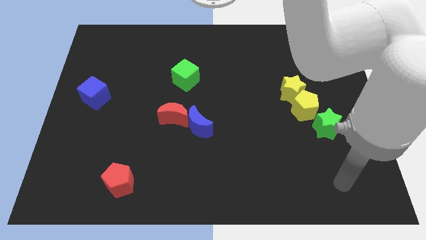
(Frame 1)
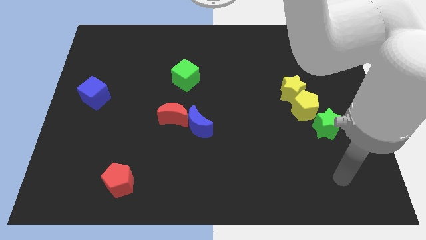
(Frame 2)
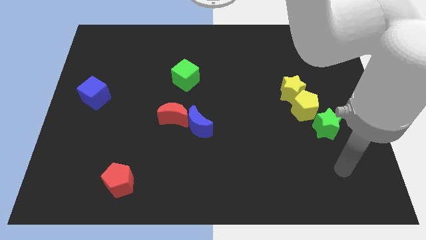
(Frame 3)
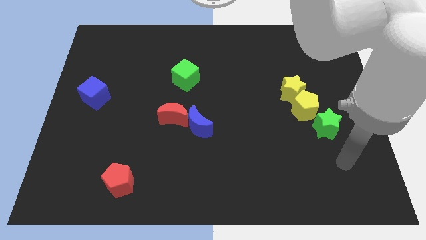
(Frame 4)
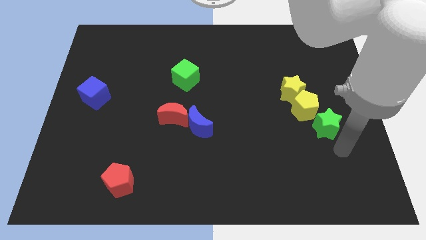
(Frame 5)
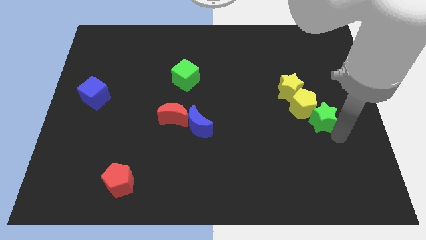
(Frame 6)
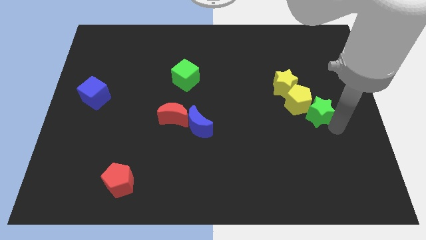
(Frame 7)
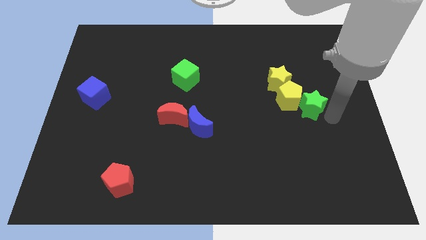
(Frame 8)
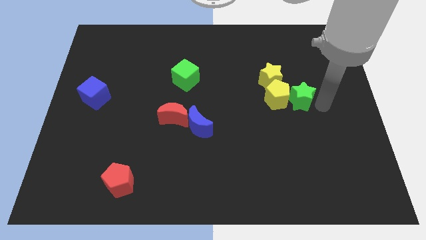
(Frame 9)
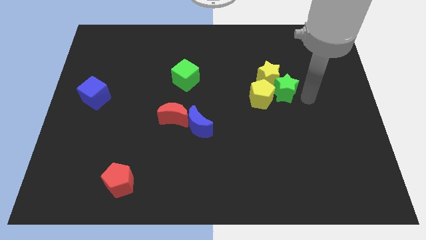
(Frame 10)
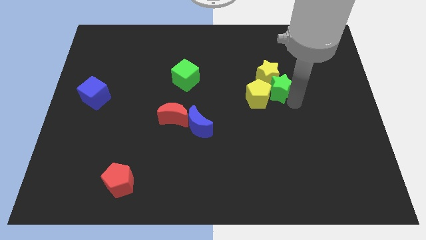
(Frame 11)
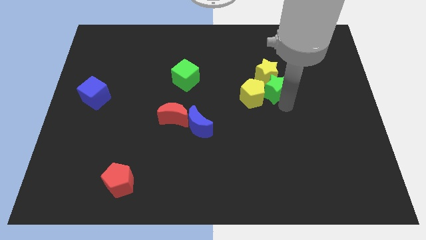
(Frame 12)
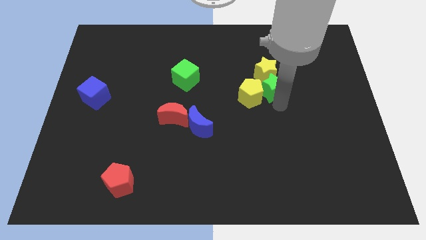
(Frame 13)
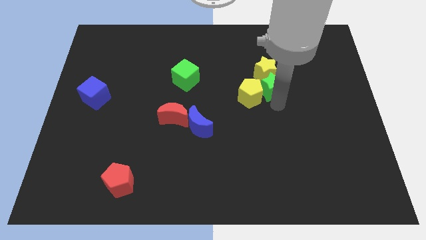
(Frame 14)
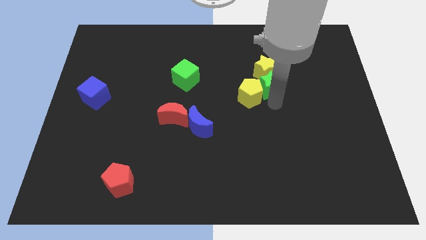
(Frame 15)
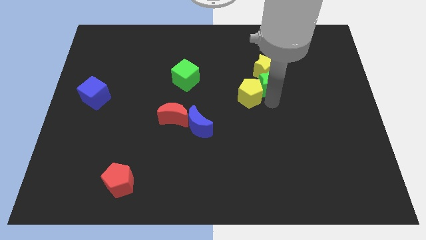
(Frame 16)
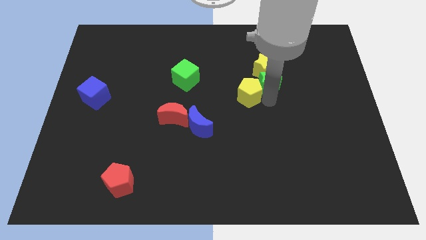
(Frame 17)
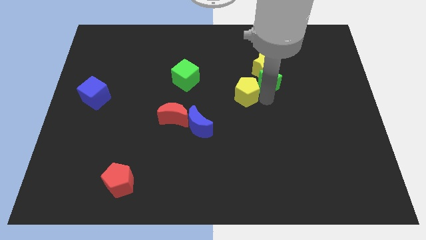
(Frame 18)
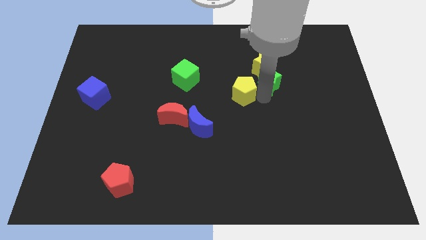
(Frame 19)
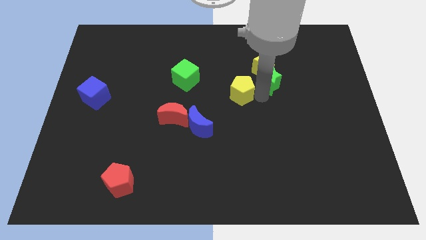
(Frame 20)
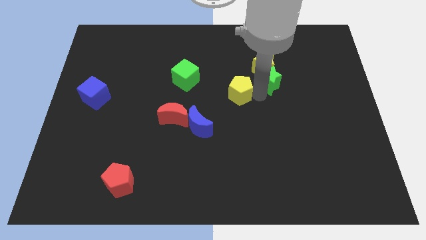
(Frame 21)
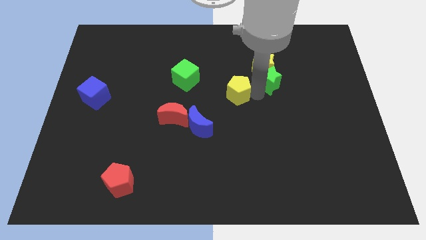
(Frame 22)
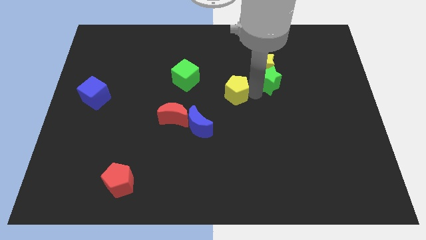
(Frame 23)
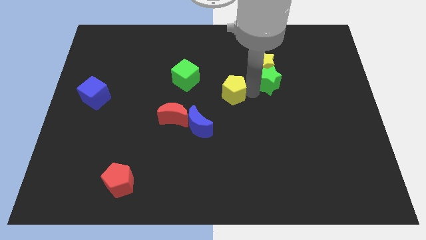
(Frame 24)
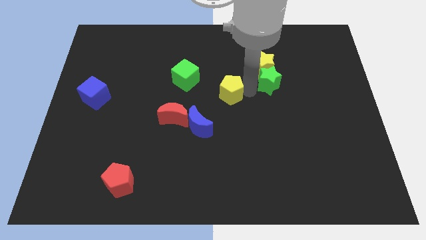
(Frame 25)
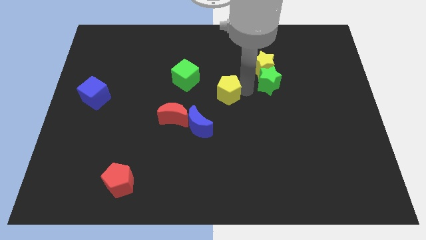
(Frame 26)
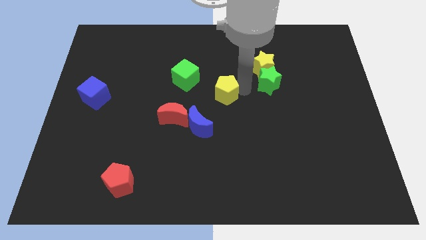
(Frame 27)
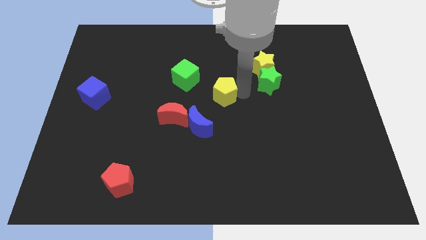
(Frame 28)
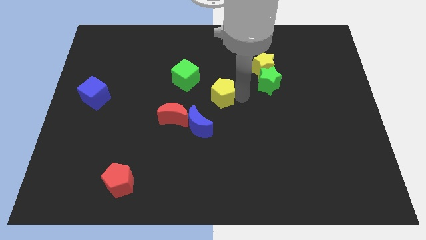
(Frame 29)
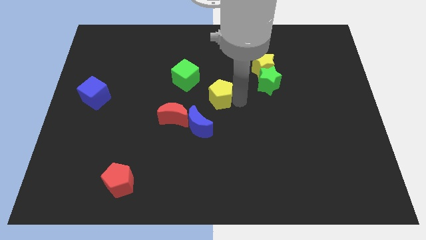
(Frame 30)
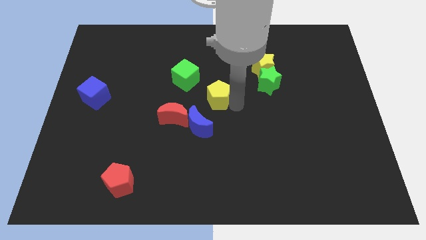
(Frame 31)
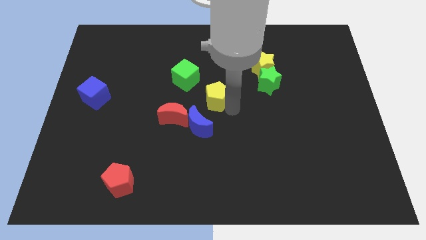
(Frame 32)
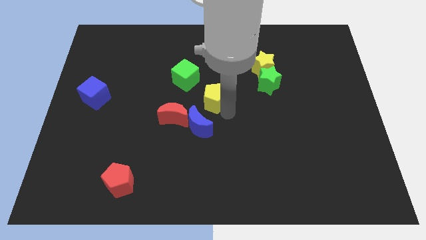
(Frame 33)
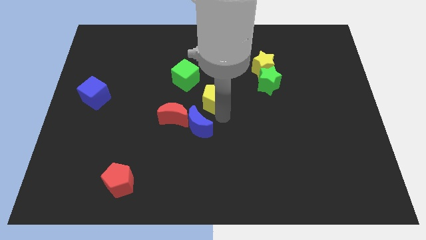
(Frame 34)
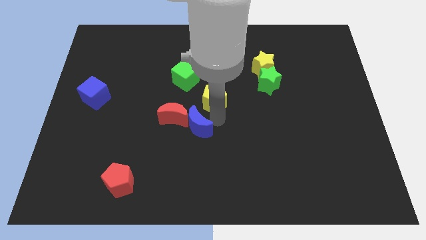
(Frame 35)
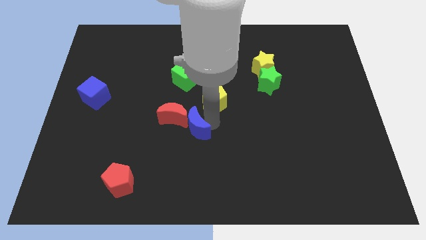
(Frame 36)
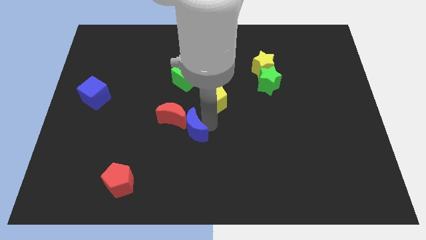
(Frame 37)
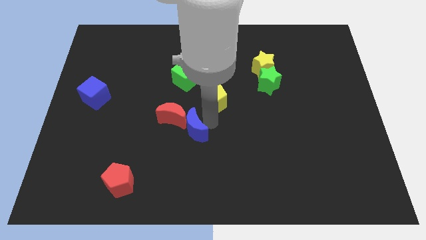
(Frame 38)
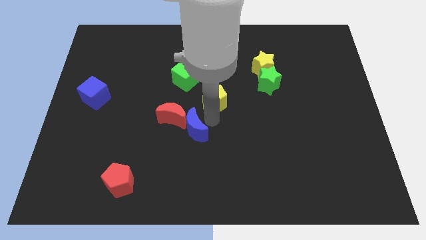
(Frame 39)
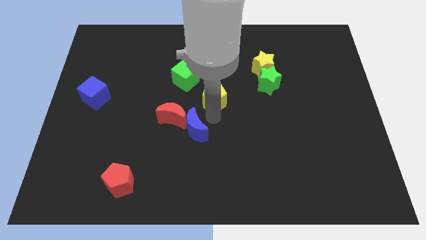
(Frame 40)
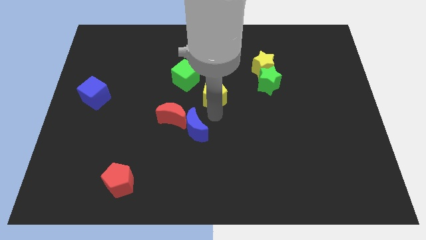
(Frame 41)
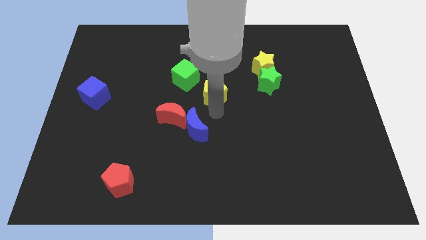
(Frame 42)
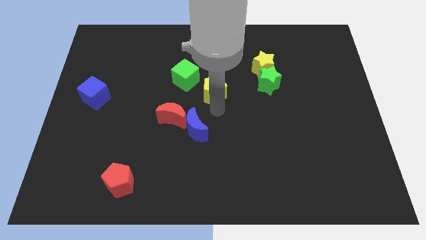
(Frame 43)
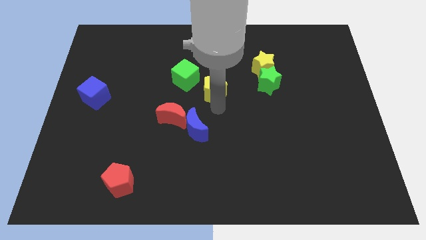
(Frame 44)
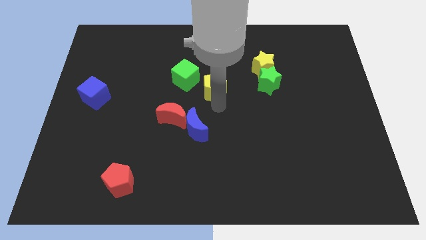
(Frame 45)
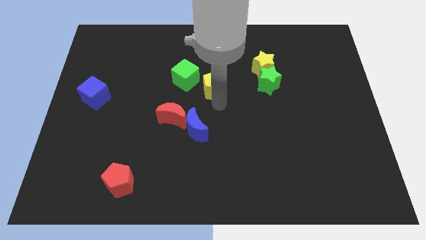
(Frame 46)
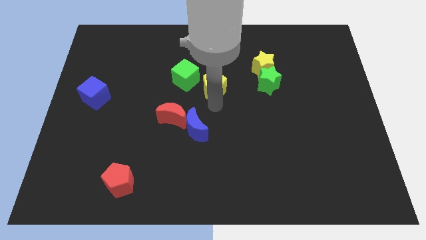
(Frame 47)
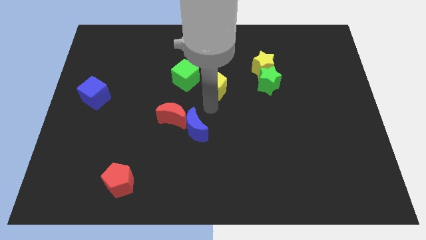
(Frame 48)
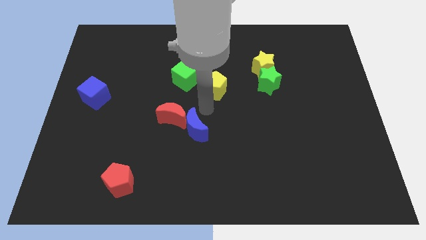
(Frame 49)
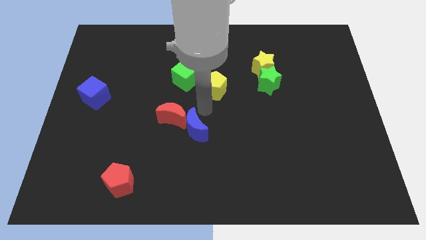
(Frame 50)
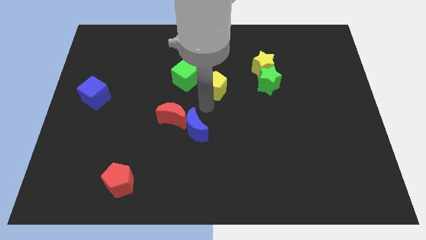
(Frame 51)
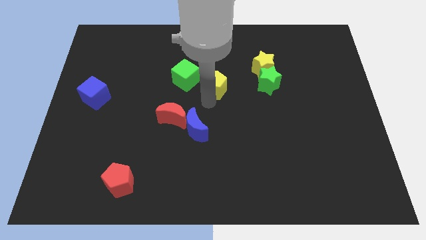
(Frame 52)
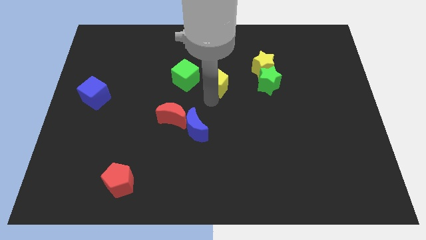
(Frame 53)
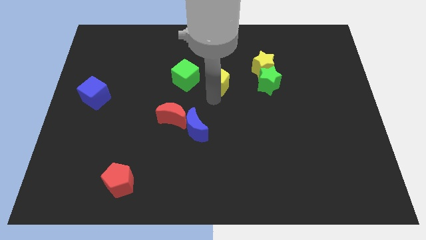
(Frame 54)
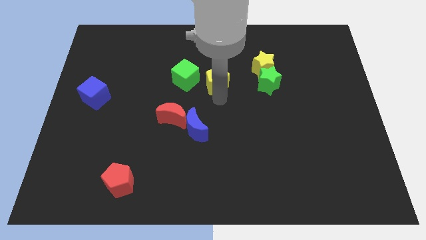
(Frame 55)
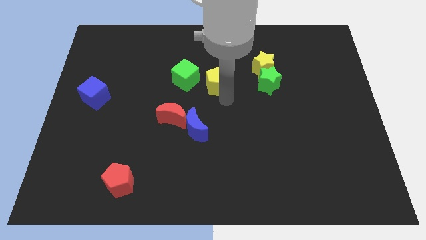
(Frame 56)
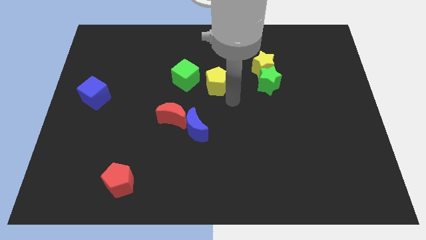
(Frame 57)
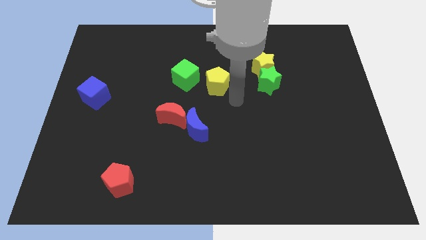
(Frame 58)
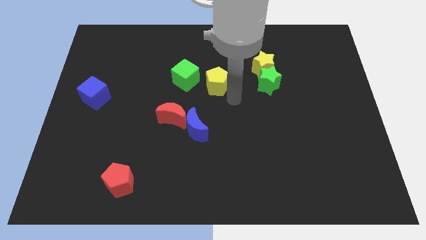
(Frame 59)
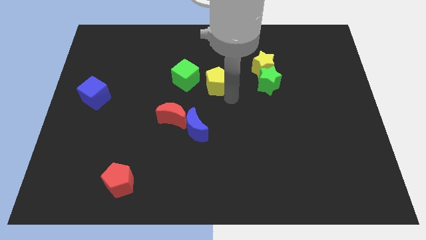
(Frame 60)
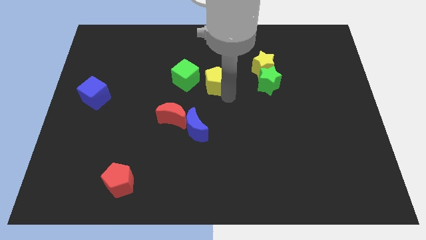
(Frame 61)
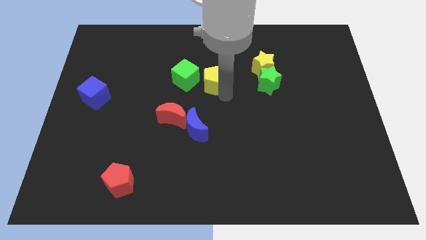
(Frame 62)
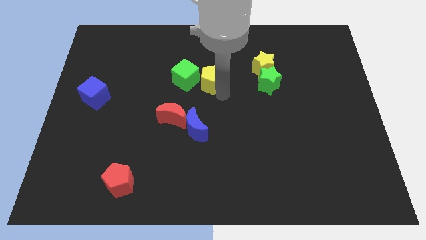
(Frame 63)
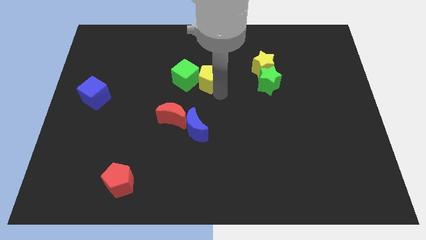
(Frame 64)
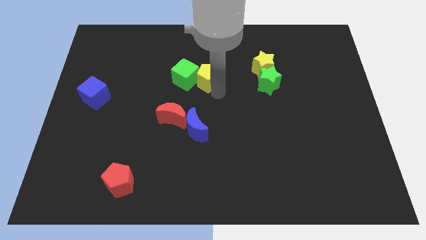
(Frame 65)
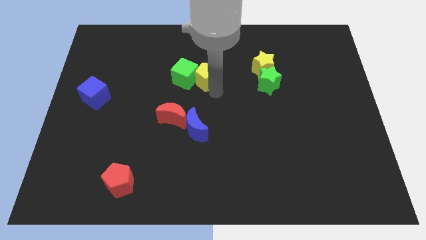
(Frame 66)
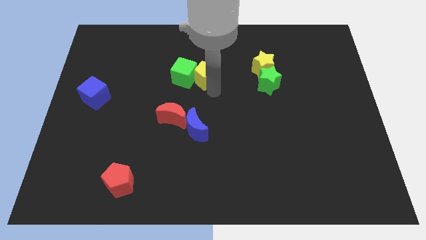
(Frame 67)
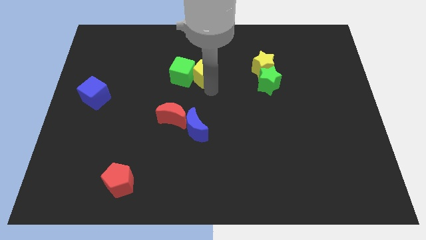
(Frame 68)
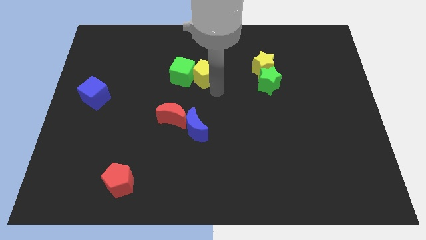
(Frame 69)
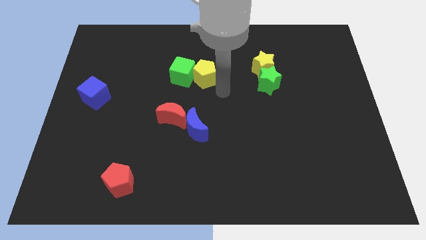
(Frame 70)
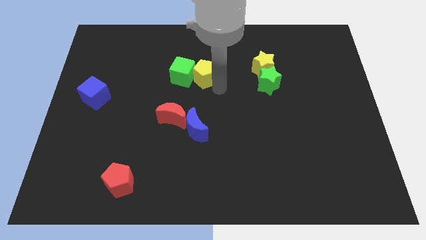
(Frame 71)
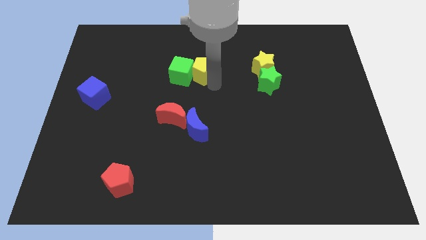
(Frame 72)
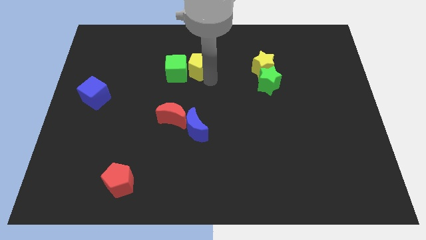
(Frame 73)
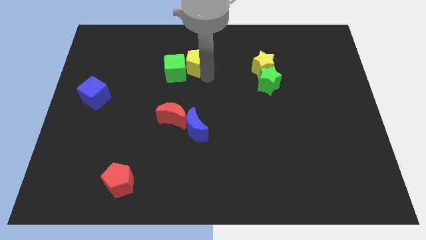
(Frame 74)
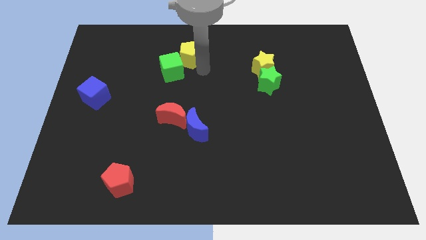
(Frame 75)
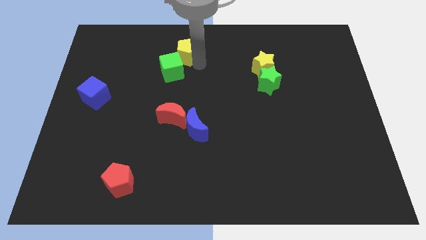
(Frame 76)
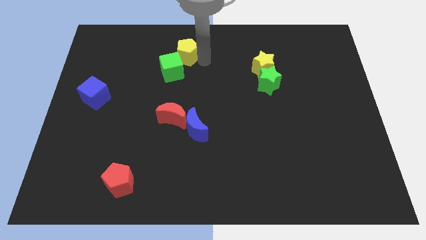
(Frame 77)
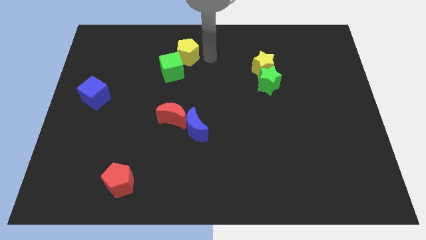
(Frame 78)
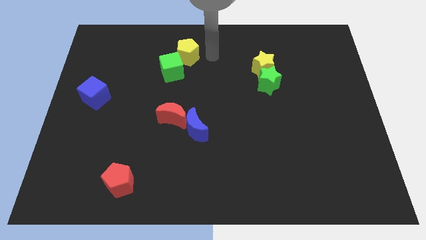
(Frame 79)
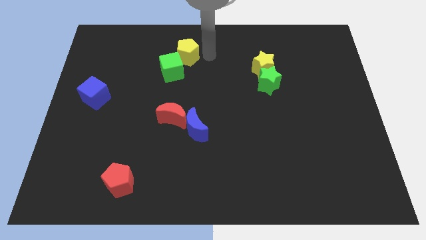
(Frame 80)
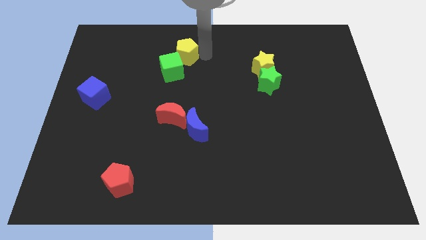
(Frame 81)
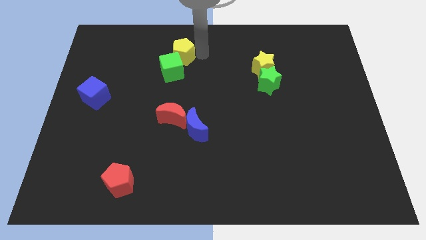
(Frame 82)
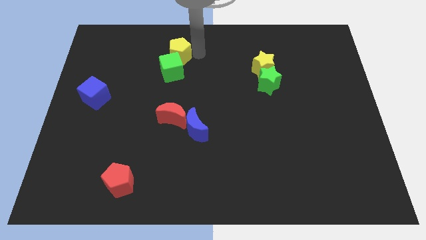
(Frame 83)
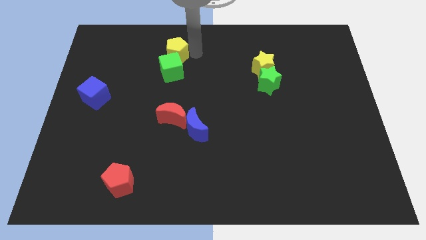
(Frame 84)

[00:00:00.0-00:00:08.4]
put the yellow pentagon to the top left of the green cube
